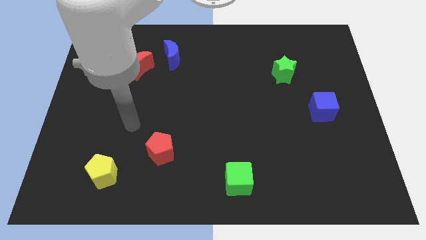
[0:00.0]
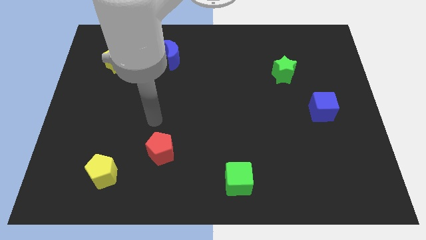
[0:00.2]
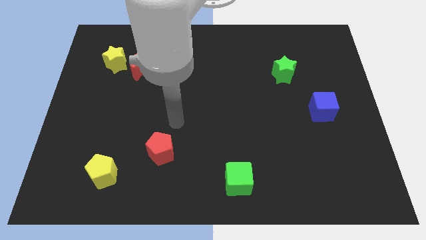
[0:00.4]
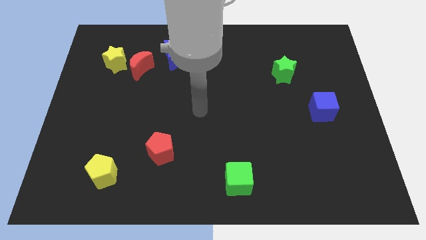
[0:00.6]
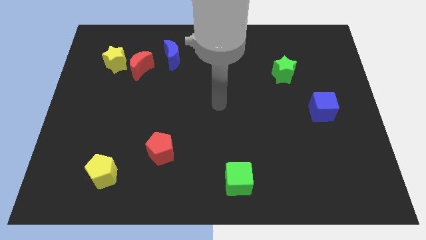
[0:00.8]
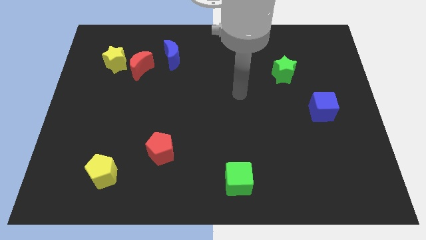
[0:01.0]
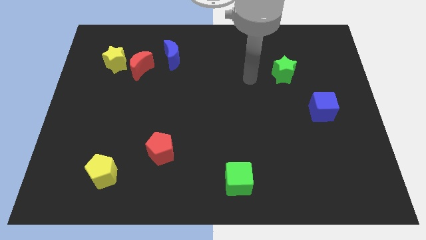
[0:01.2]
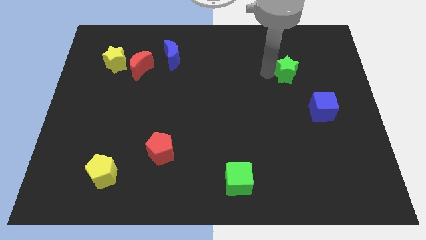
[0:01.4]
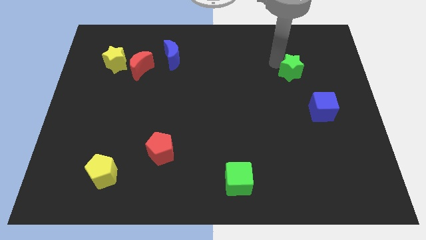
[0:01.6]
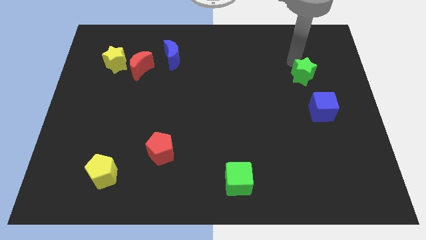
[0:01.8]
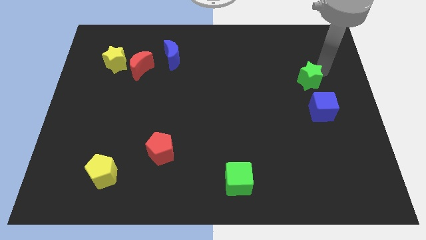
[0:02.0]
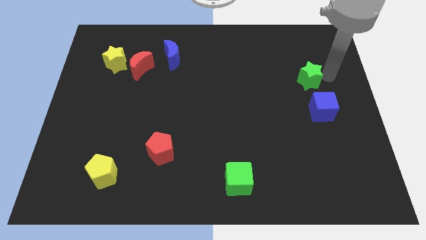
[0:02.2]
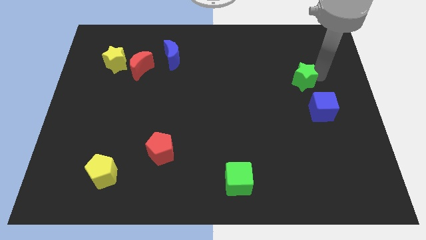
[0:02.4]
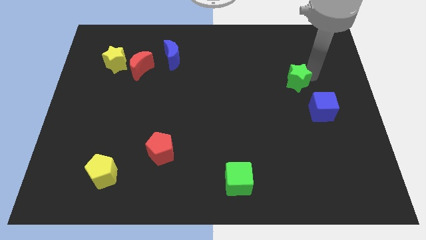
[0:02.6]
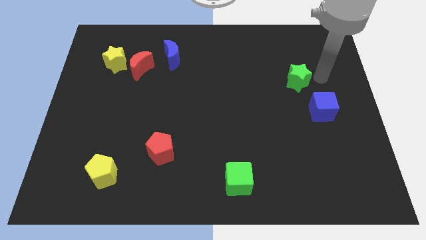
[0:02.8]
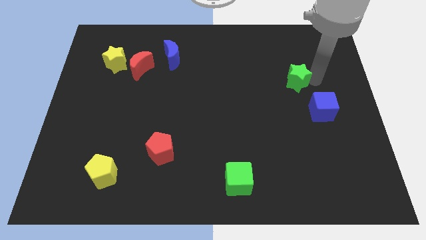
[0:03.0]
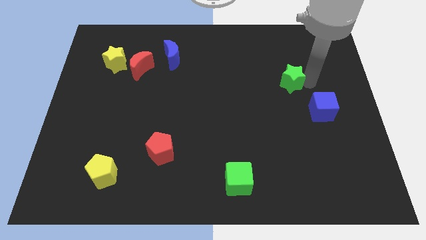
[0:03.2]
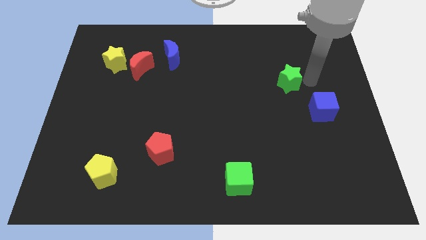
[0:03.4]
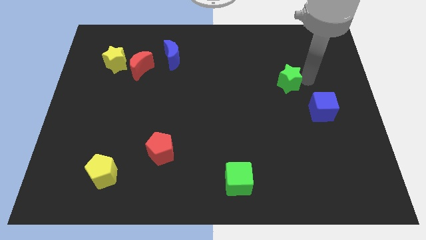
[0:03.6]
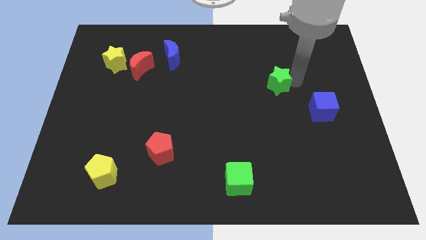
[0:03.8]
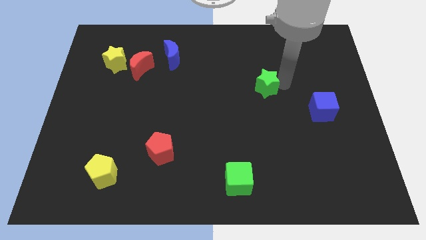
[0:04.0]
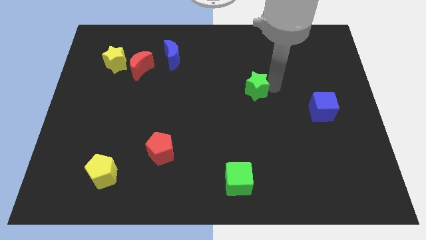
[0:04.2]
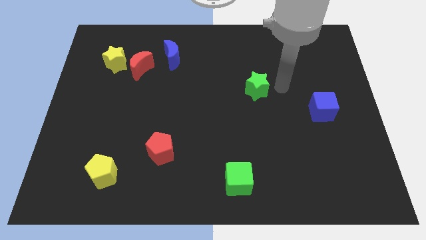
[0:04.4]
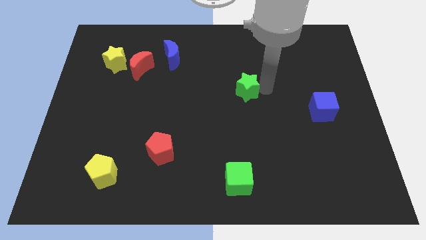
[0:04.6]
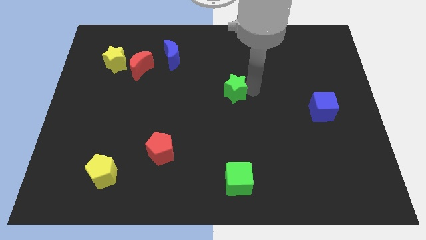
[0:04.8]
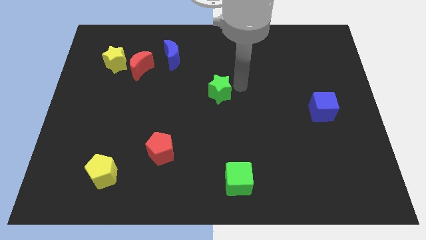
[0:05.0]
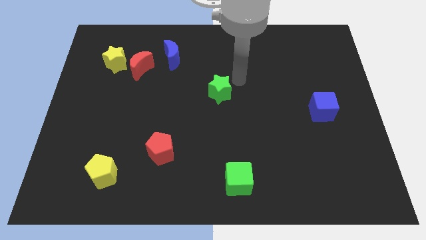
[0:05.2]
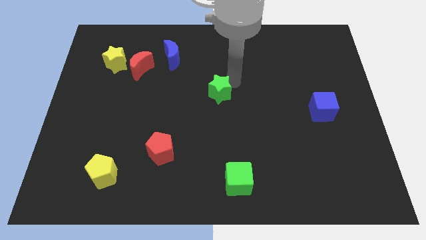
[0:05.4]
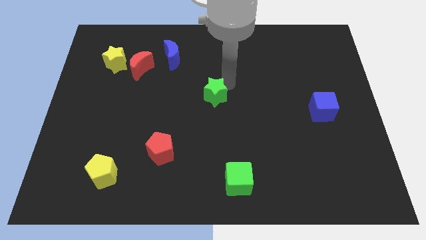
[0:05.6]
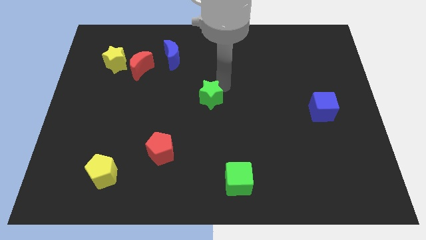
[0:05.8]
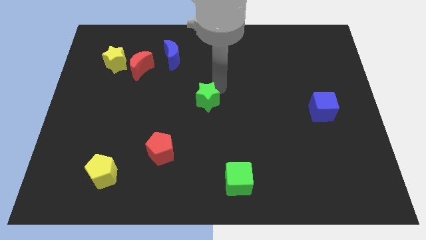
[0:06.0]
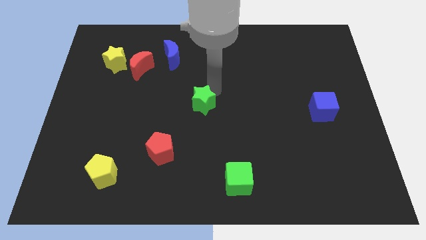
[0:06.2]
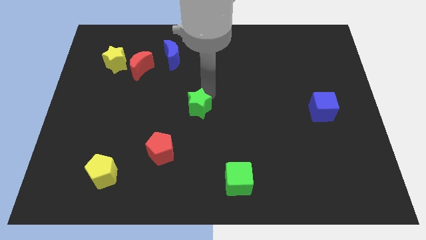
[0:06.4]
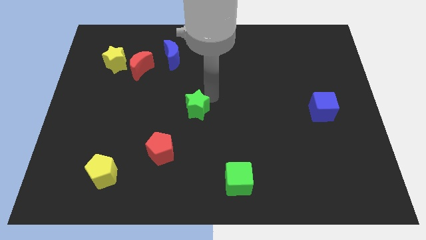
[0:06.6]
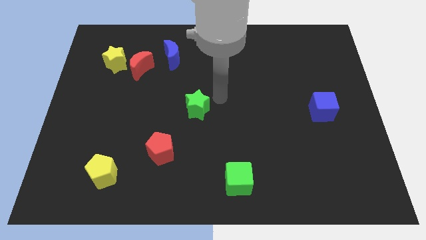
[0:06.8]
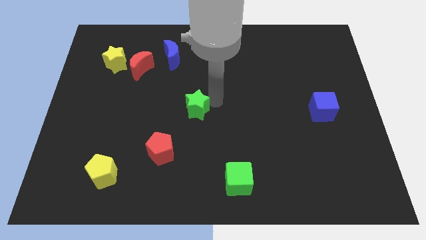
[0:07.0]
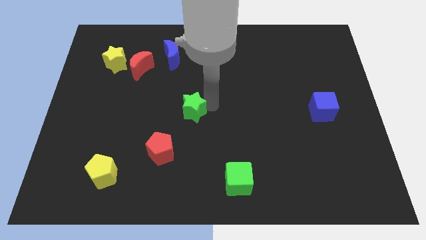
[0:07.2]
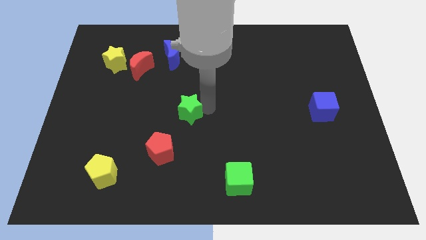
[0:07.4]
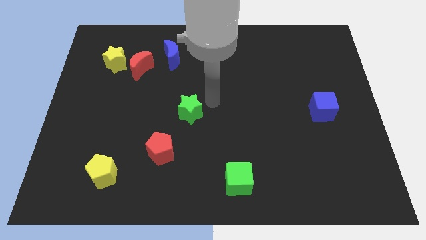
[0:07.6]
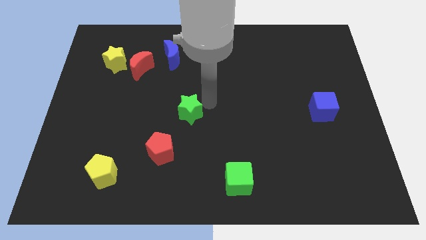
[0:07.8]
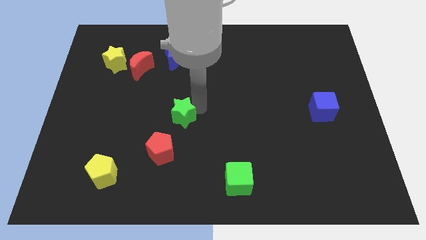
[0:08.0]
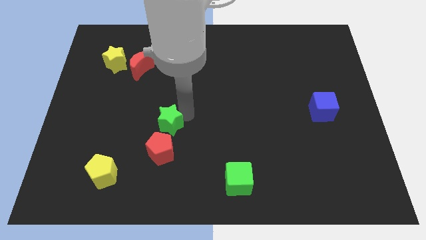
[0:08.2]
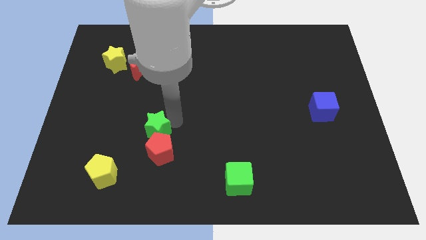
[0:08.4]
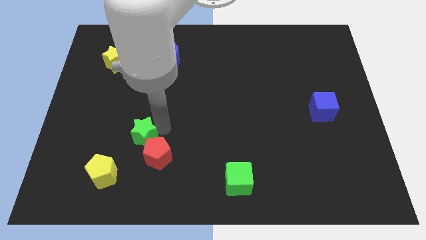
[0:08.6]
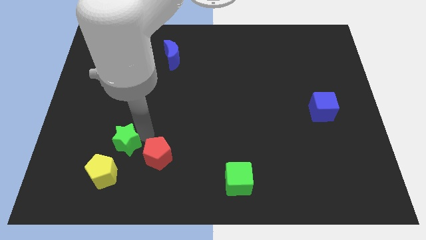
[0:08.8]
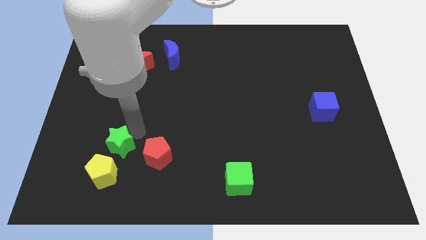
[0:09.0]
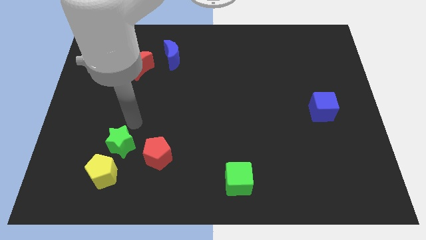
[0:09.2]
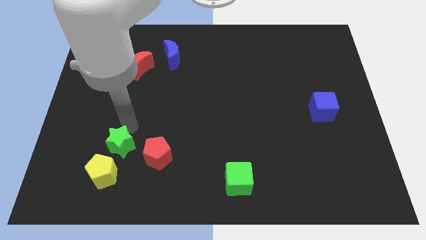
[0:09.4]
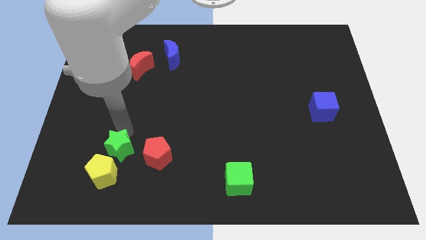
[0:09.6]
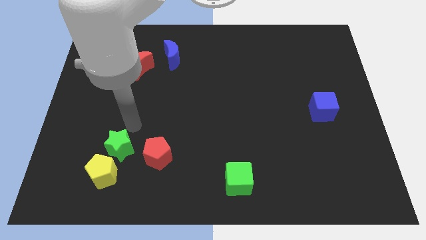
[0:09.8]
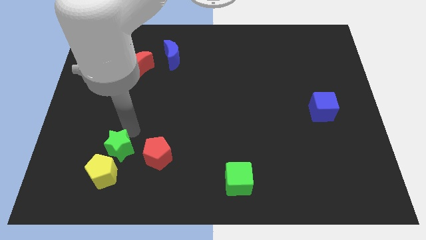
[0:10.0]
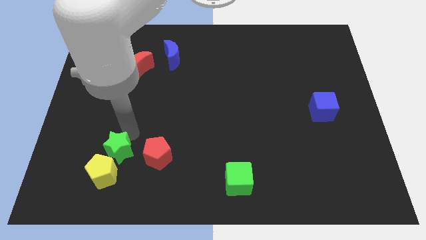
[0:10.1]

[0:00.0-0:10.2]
push the green star close to the yellow pentagon

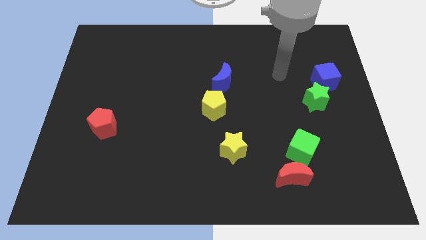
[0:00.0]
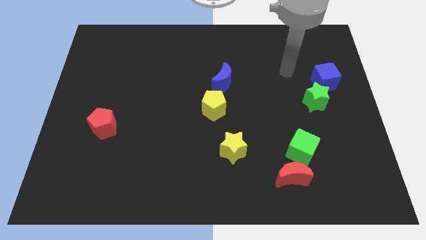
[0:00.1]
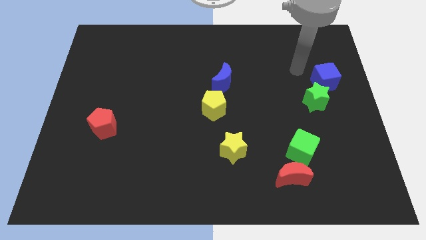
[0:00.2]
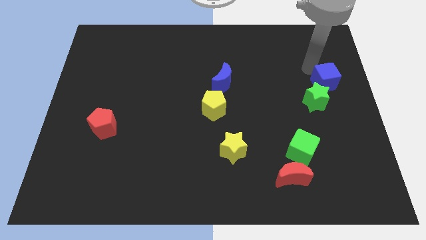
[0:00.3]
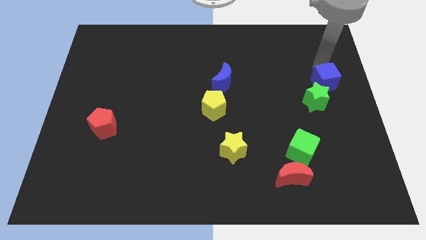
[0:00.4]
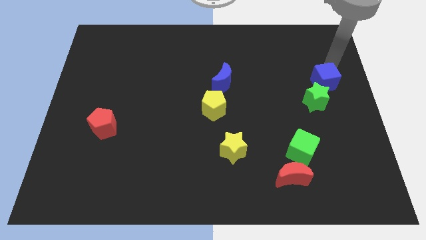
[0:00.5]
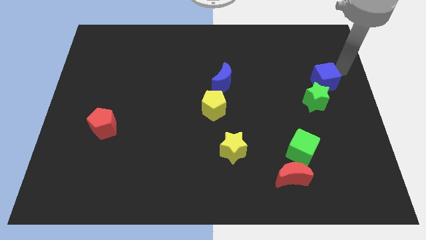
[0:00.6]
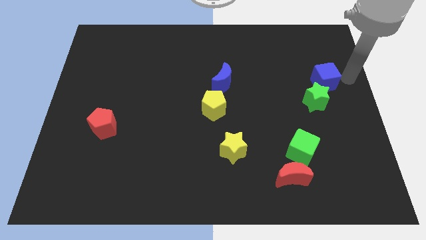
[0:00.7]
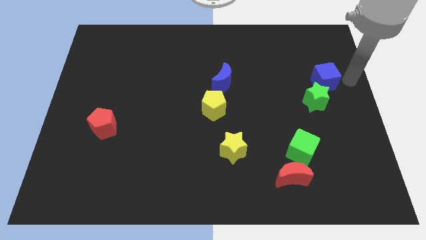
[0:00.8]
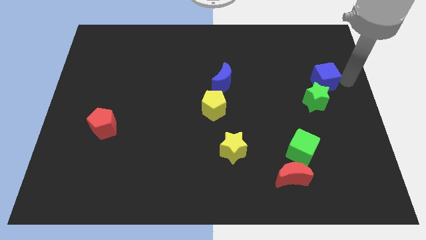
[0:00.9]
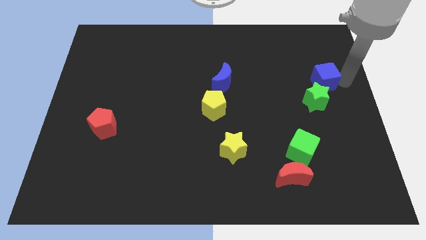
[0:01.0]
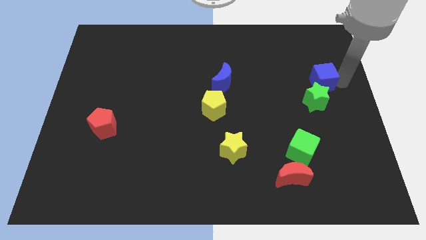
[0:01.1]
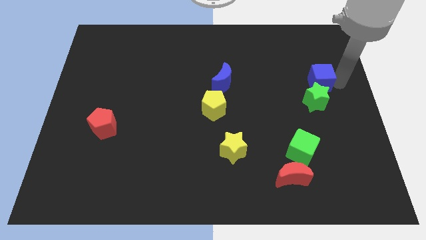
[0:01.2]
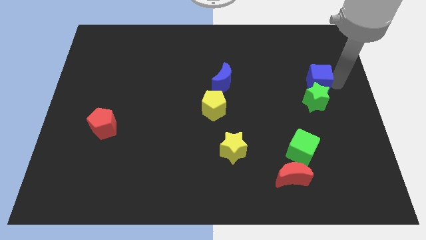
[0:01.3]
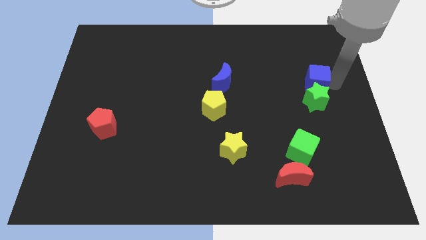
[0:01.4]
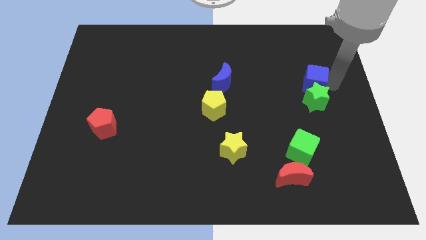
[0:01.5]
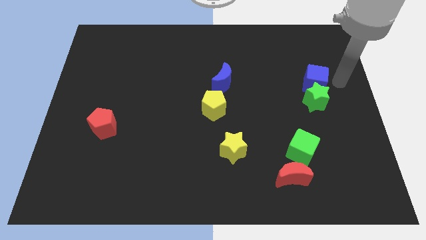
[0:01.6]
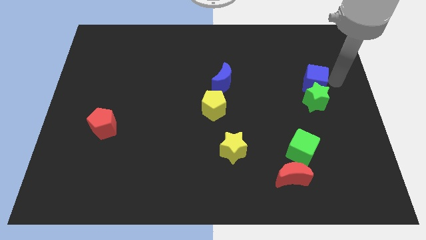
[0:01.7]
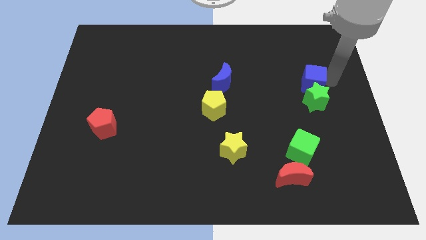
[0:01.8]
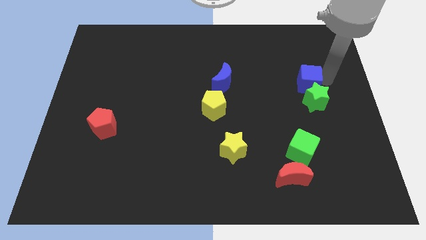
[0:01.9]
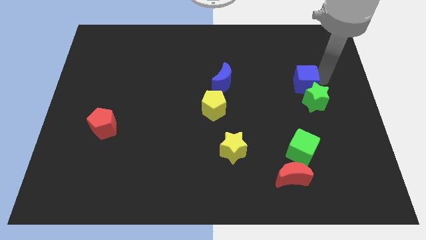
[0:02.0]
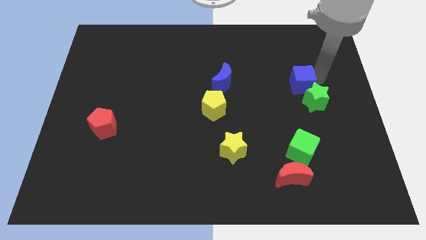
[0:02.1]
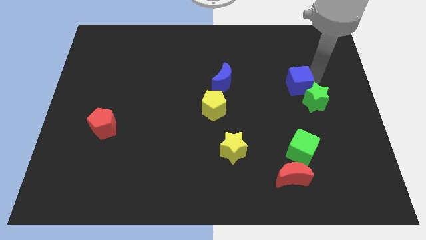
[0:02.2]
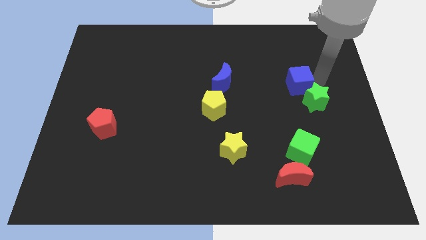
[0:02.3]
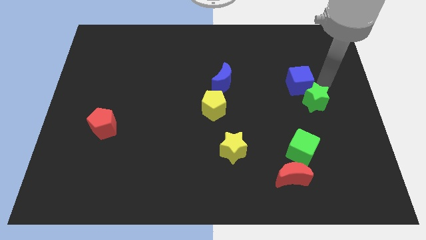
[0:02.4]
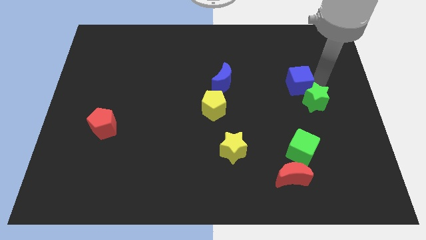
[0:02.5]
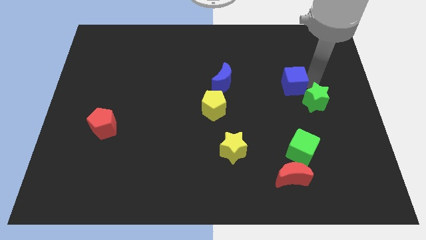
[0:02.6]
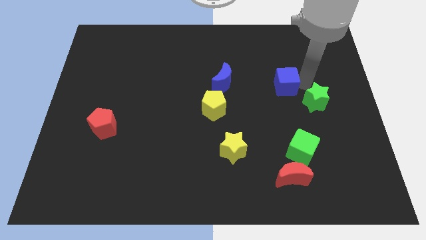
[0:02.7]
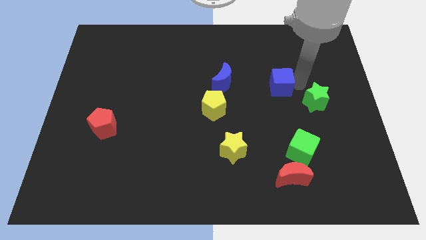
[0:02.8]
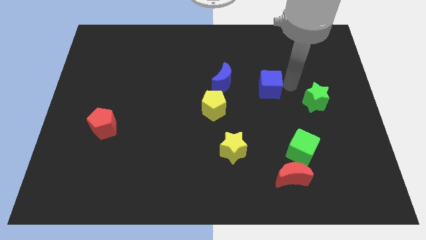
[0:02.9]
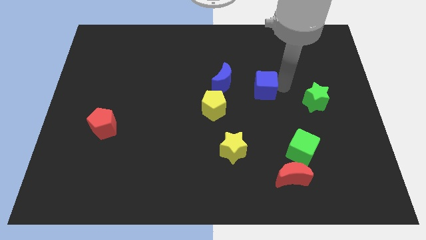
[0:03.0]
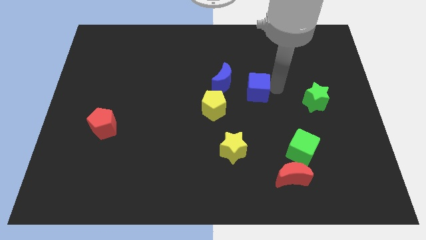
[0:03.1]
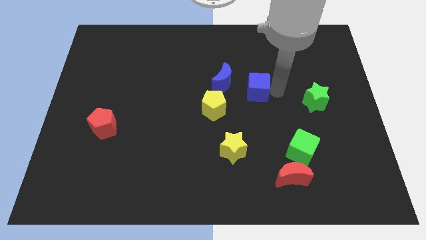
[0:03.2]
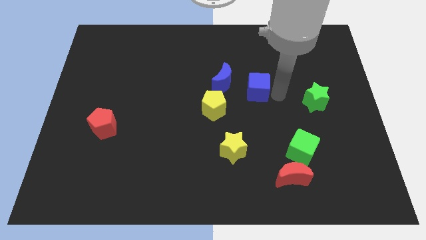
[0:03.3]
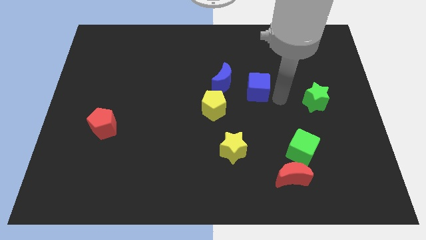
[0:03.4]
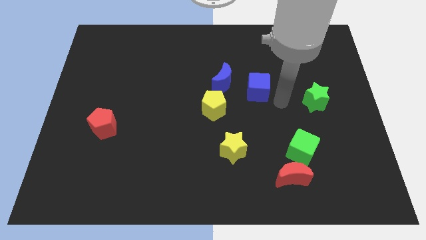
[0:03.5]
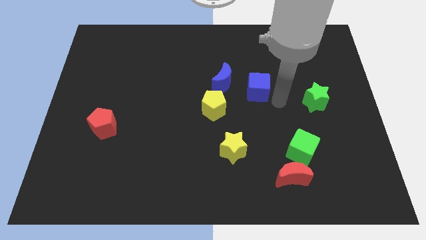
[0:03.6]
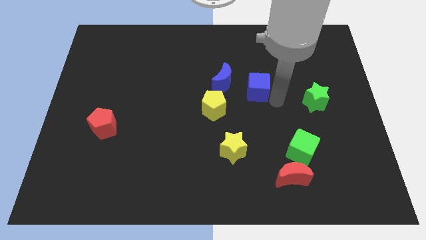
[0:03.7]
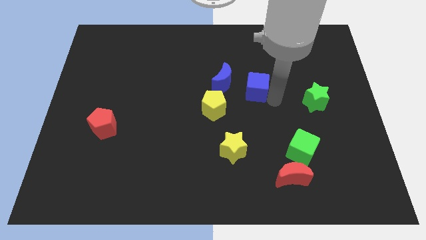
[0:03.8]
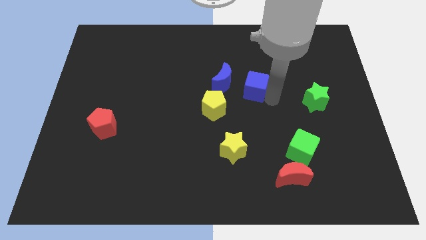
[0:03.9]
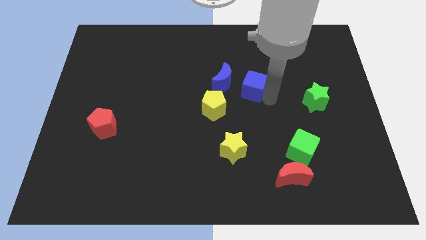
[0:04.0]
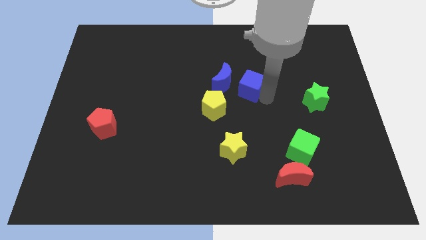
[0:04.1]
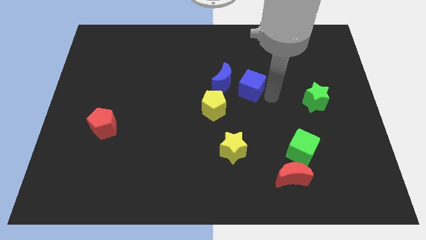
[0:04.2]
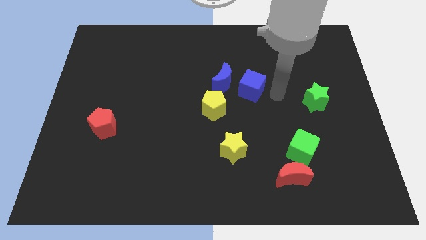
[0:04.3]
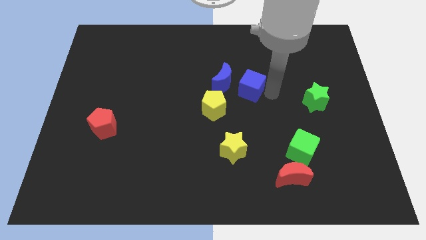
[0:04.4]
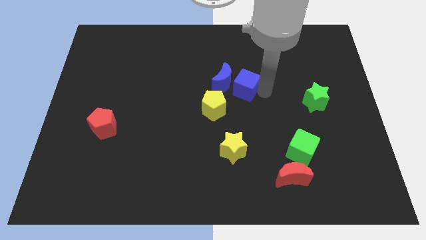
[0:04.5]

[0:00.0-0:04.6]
put the blue cube towards the blue moon
